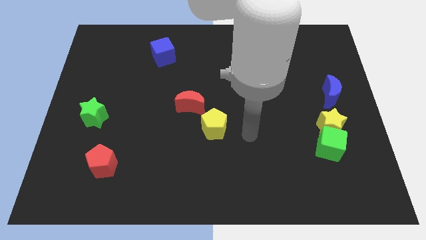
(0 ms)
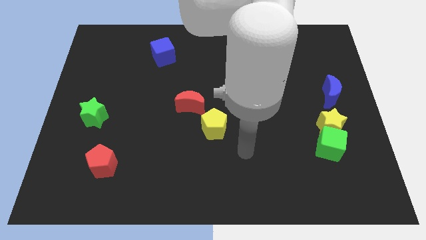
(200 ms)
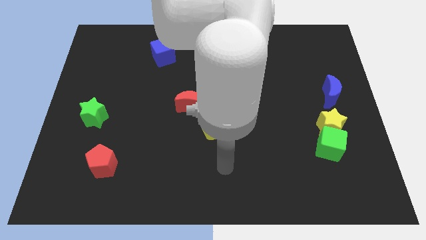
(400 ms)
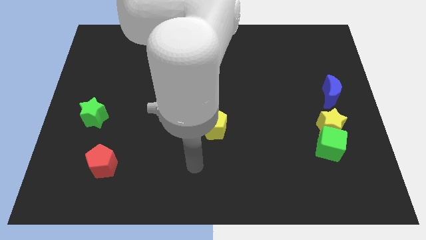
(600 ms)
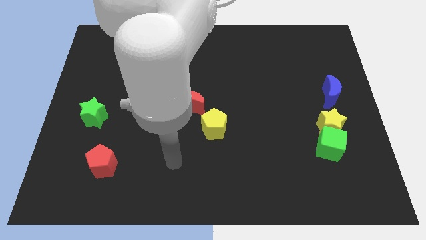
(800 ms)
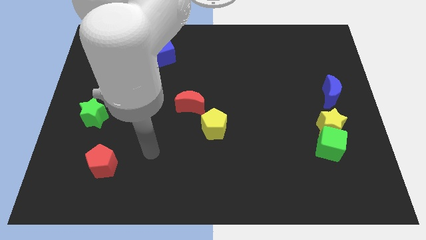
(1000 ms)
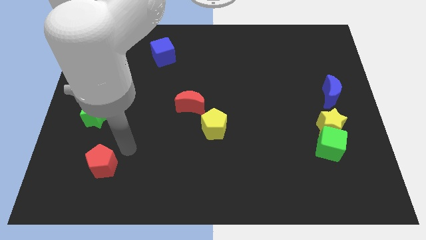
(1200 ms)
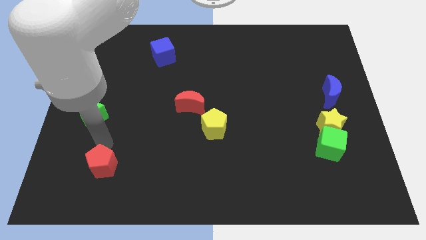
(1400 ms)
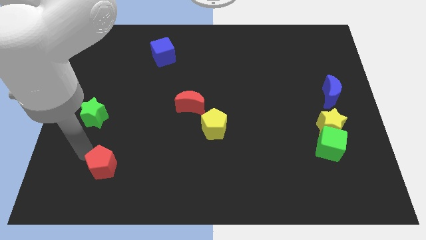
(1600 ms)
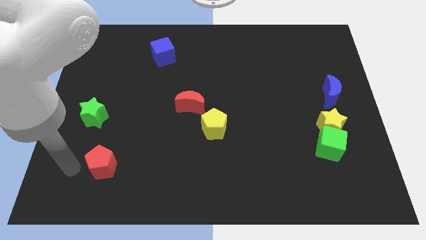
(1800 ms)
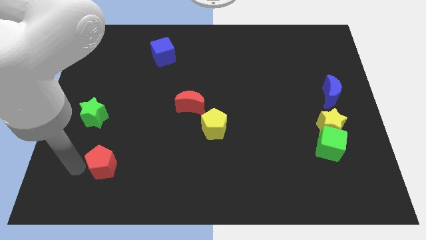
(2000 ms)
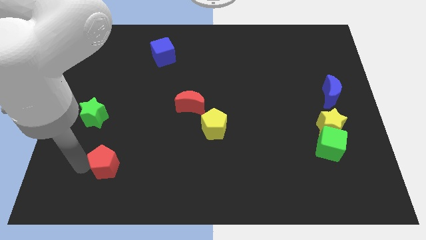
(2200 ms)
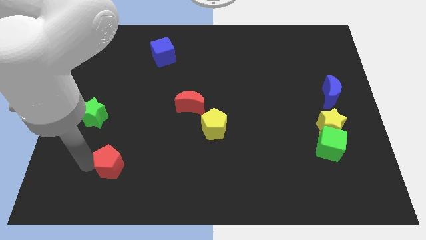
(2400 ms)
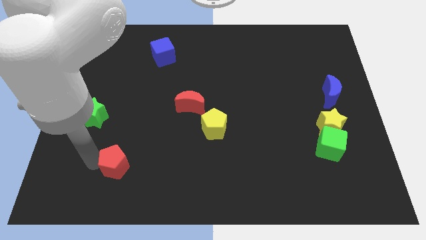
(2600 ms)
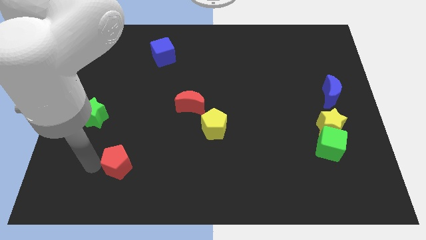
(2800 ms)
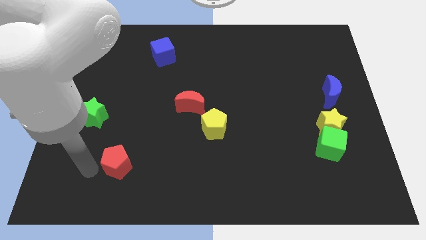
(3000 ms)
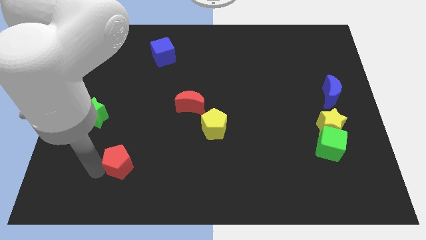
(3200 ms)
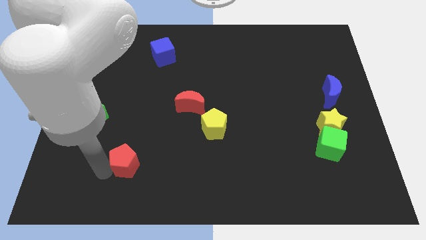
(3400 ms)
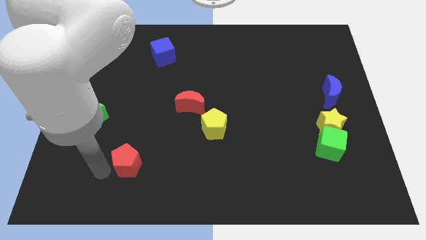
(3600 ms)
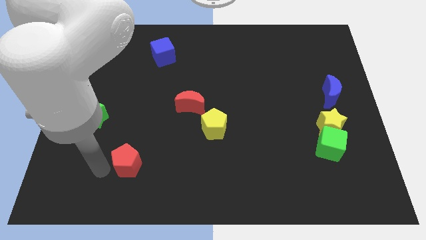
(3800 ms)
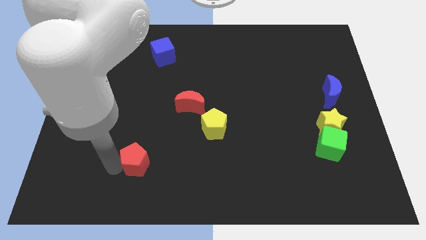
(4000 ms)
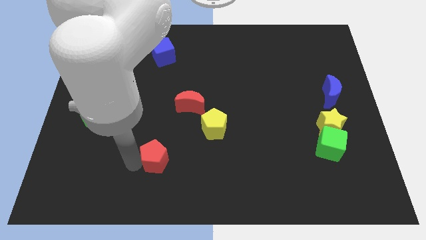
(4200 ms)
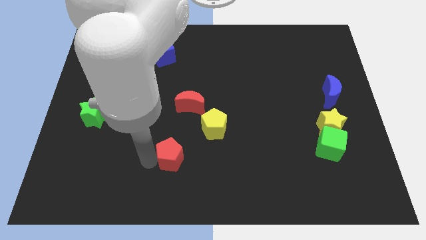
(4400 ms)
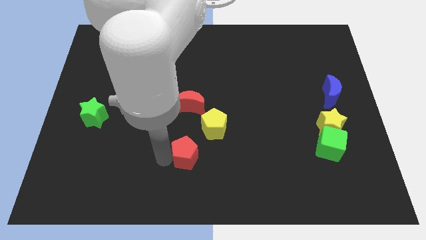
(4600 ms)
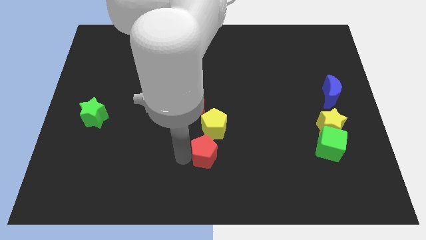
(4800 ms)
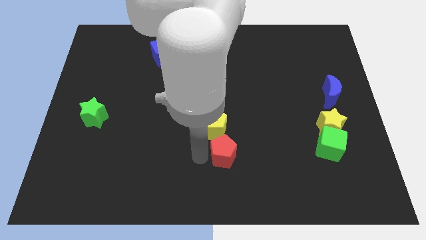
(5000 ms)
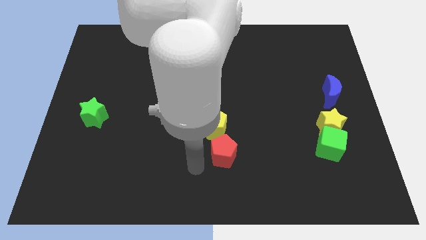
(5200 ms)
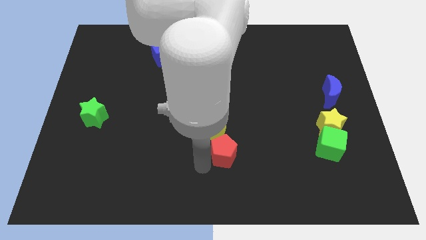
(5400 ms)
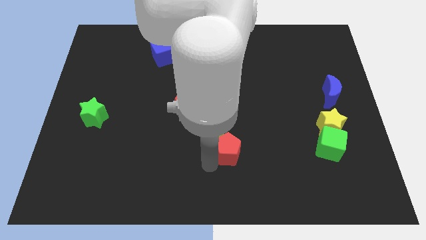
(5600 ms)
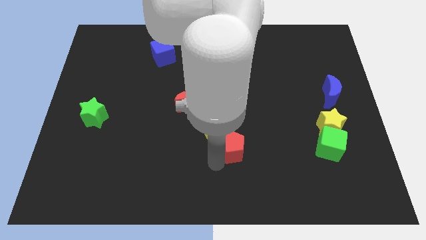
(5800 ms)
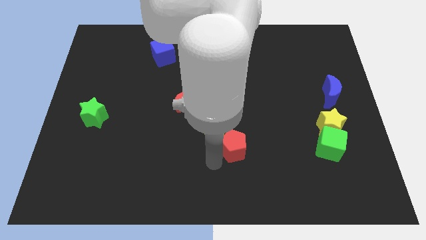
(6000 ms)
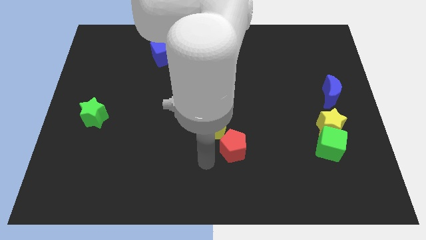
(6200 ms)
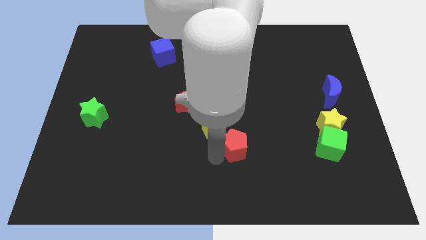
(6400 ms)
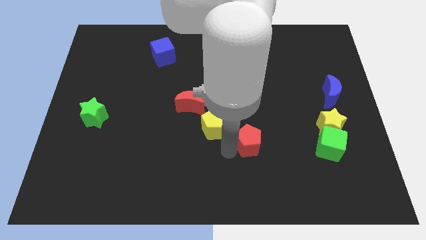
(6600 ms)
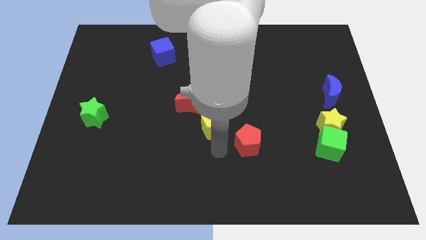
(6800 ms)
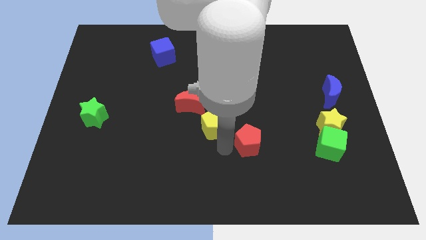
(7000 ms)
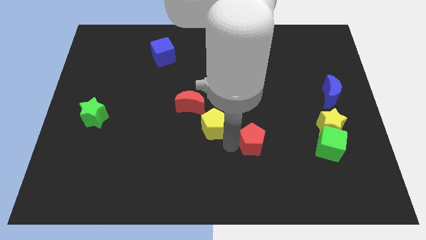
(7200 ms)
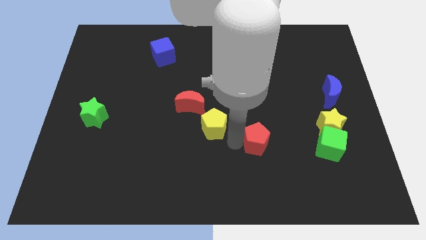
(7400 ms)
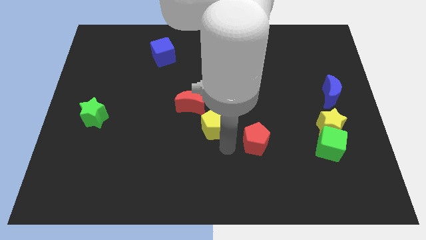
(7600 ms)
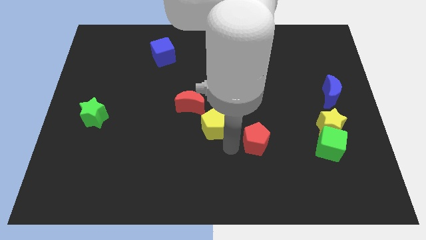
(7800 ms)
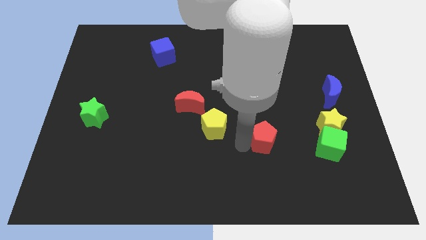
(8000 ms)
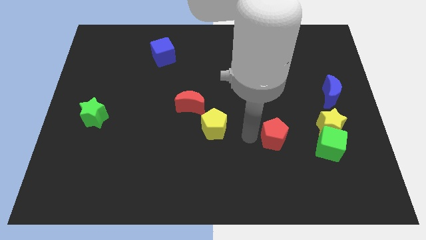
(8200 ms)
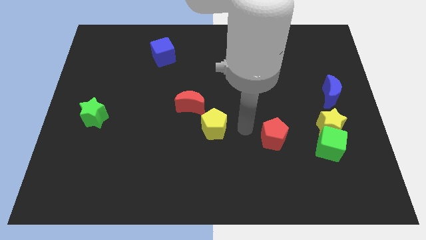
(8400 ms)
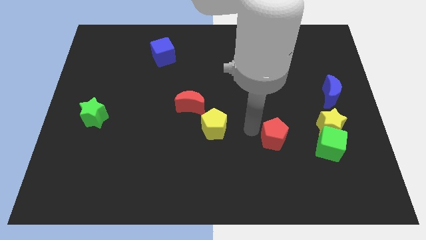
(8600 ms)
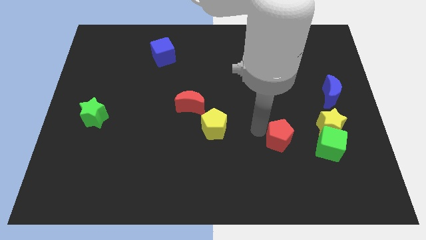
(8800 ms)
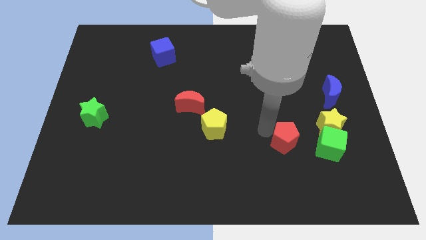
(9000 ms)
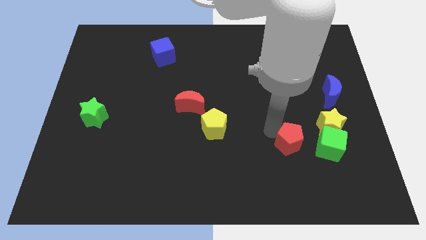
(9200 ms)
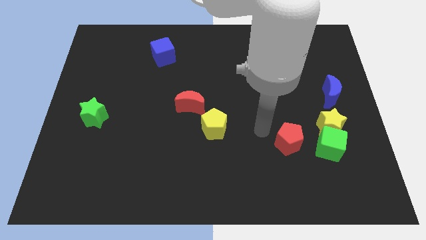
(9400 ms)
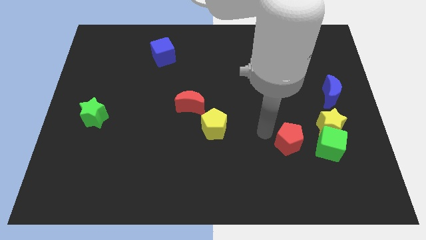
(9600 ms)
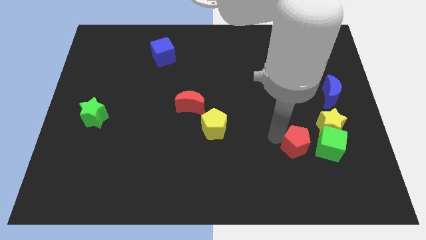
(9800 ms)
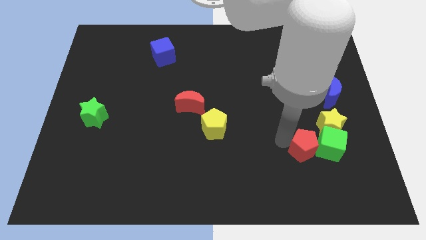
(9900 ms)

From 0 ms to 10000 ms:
slide the red pentagon towards the green cube

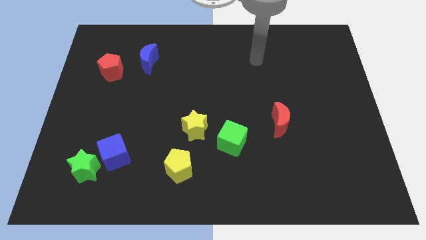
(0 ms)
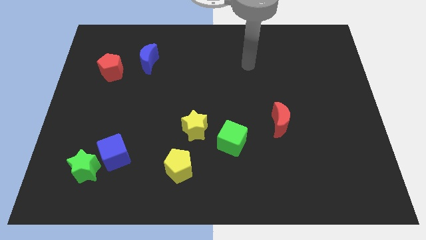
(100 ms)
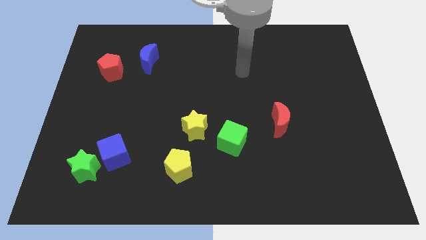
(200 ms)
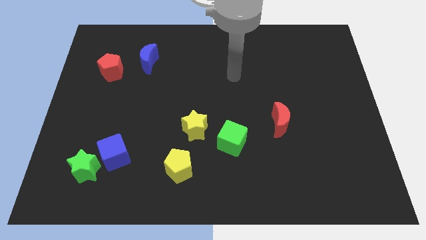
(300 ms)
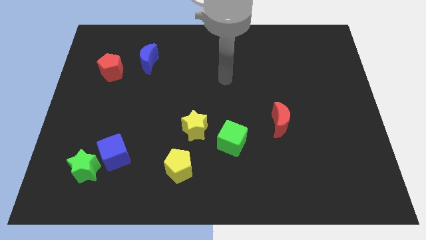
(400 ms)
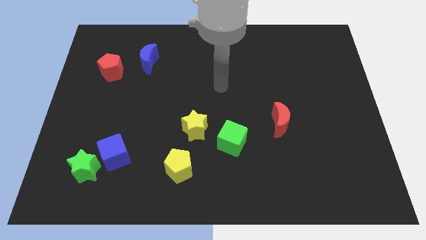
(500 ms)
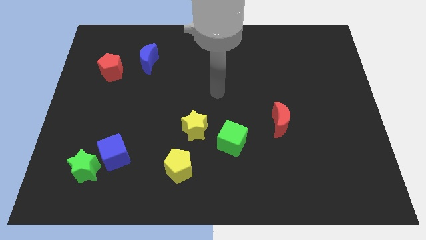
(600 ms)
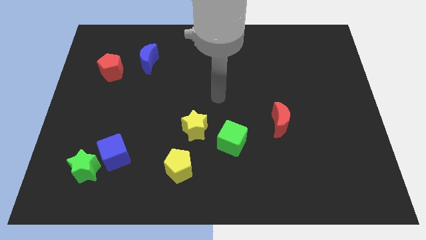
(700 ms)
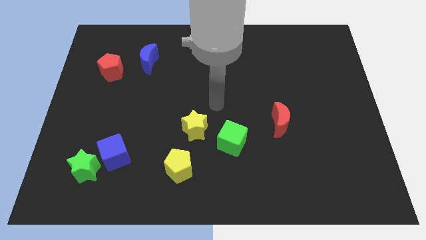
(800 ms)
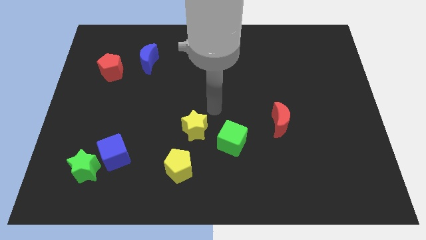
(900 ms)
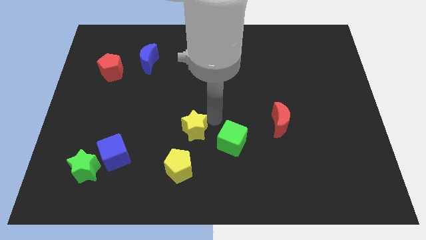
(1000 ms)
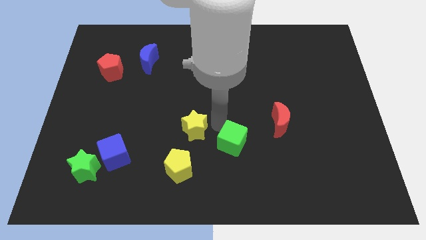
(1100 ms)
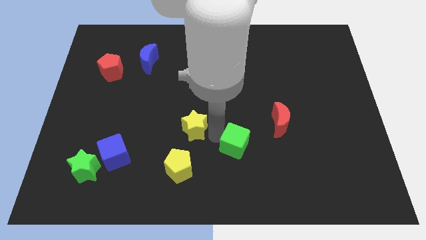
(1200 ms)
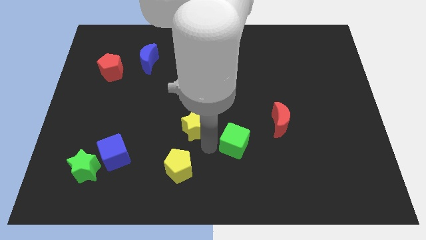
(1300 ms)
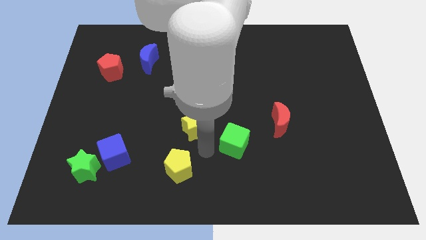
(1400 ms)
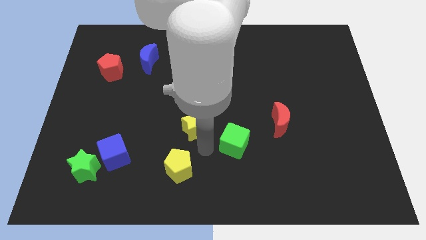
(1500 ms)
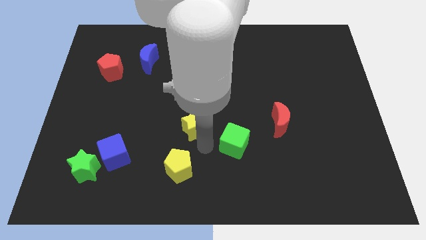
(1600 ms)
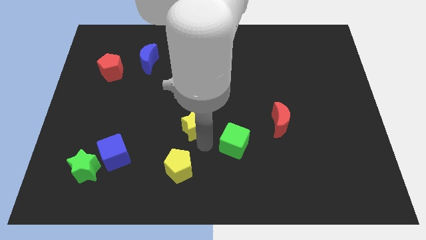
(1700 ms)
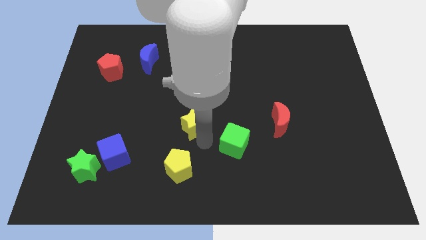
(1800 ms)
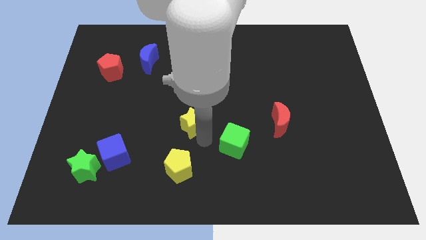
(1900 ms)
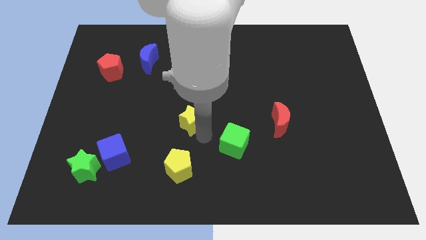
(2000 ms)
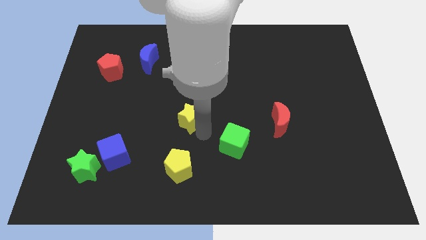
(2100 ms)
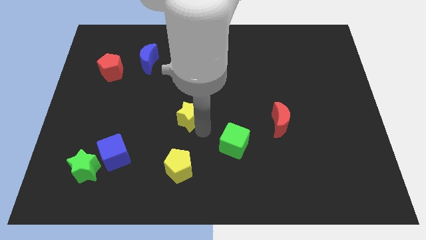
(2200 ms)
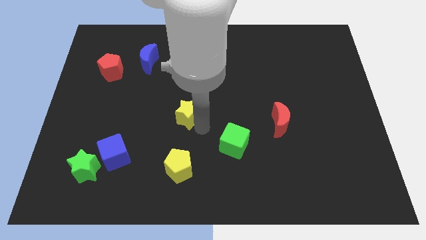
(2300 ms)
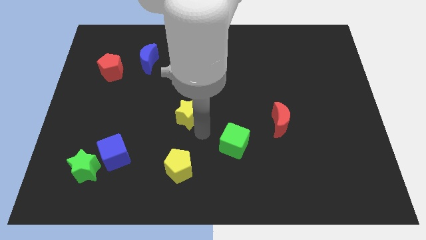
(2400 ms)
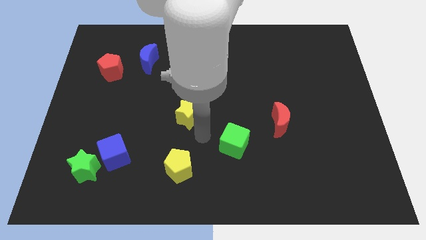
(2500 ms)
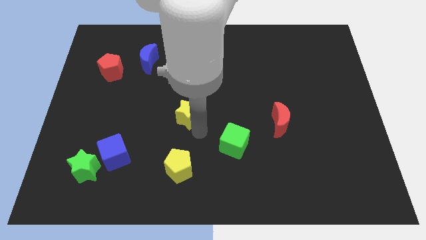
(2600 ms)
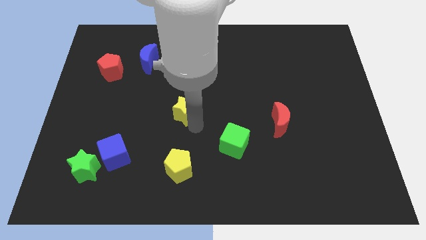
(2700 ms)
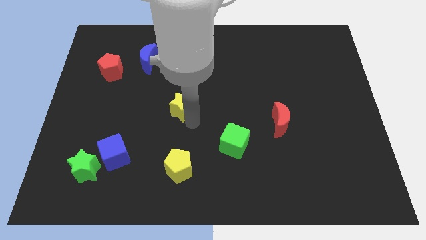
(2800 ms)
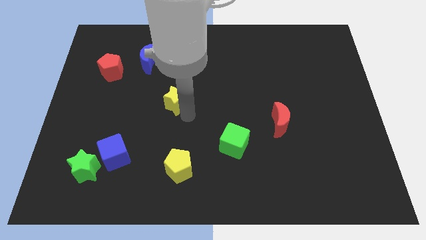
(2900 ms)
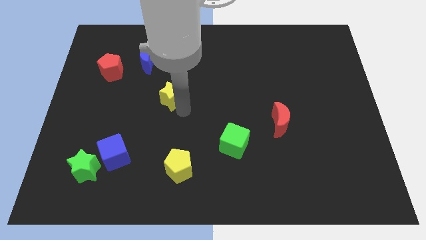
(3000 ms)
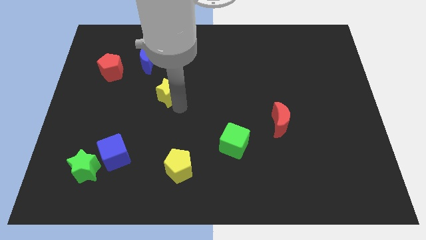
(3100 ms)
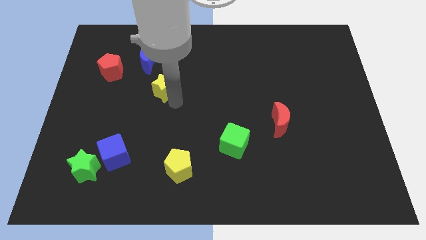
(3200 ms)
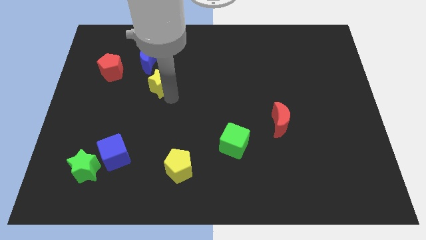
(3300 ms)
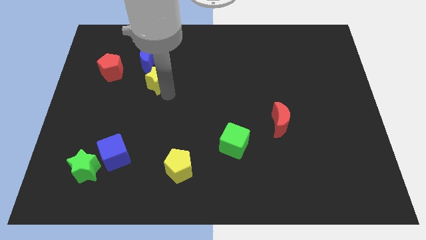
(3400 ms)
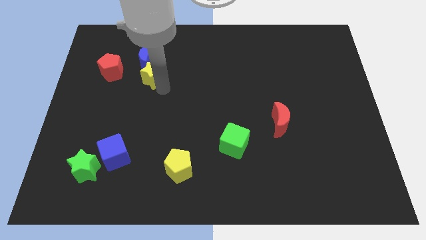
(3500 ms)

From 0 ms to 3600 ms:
put the yellow star towards the blue moon
